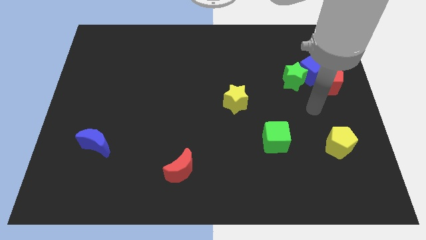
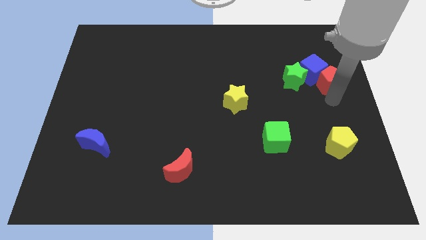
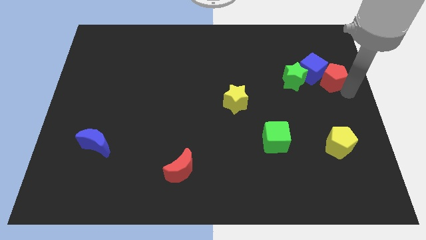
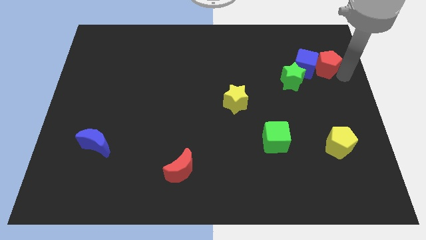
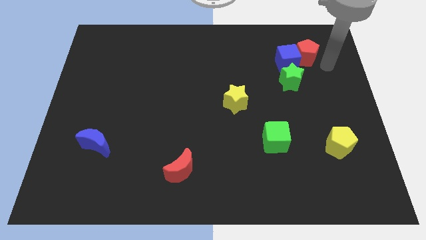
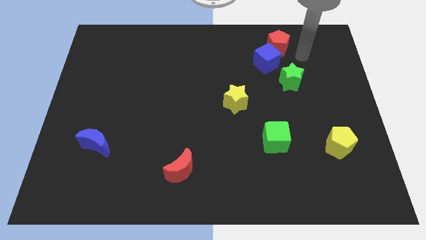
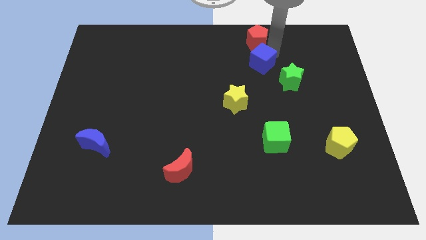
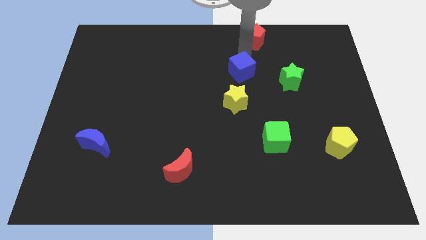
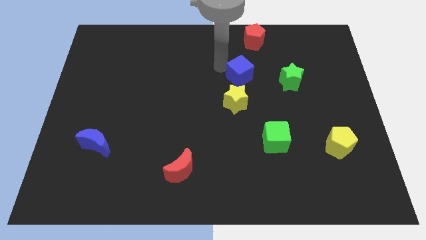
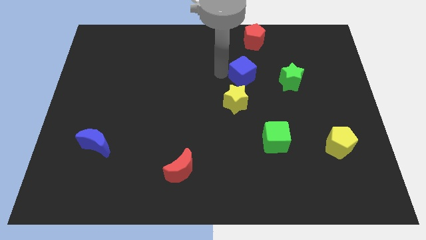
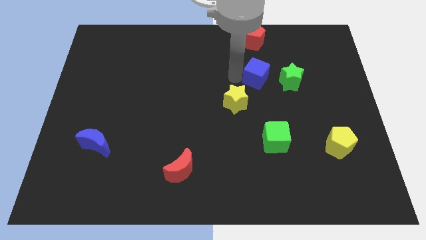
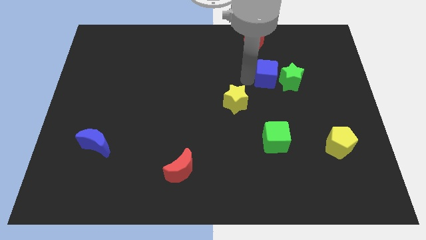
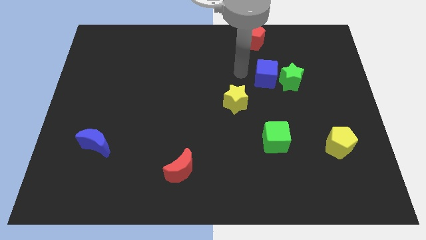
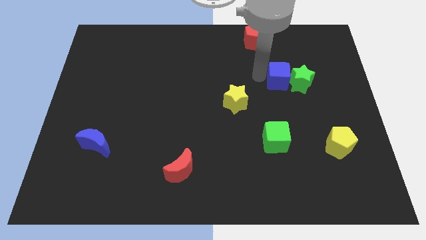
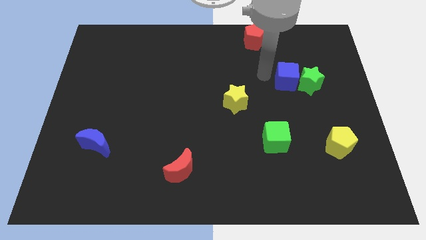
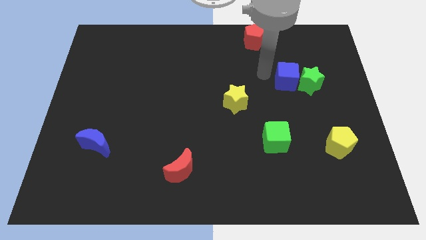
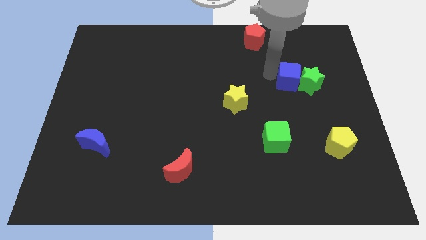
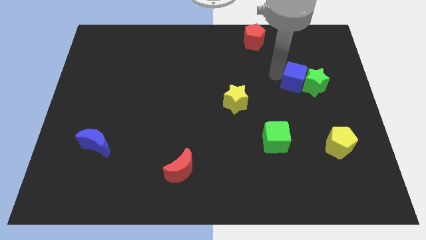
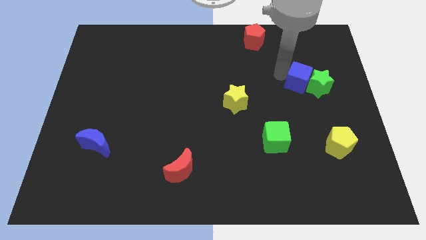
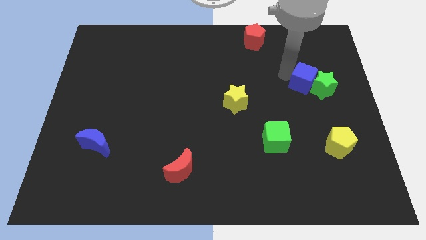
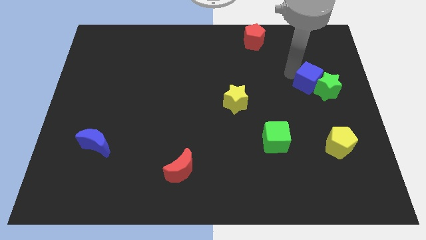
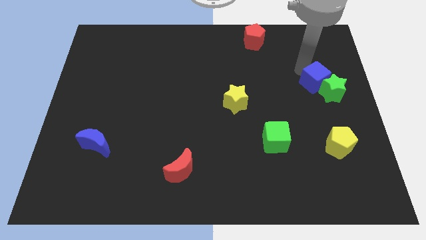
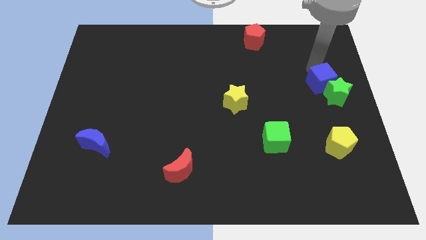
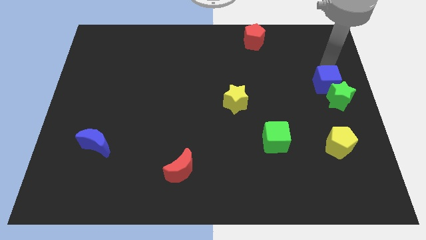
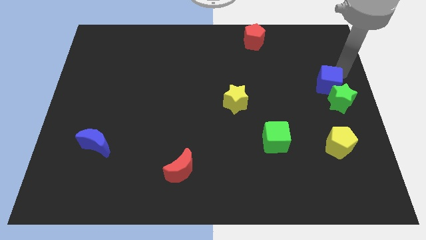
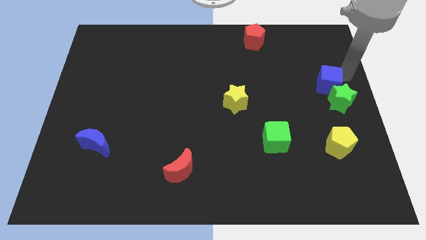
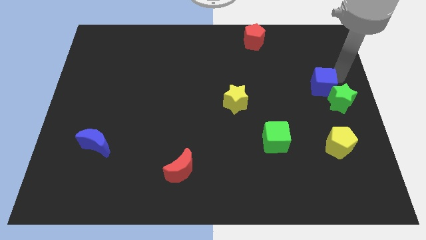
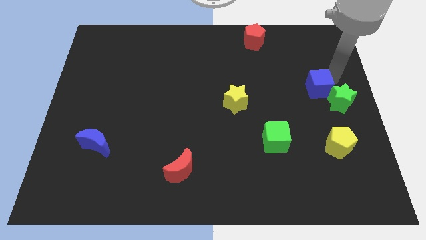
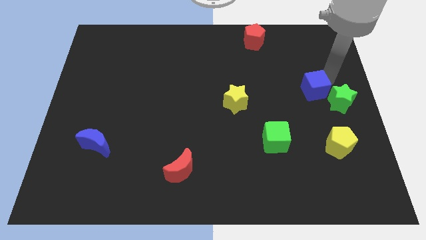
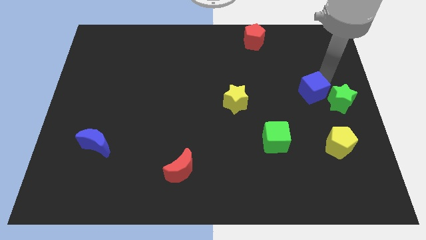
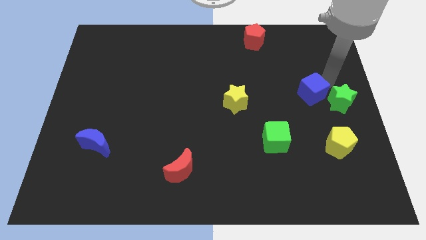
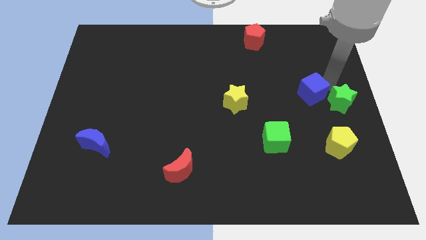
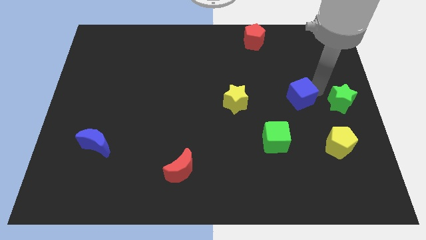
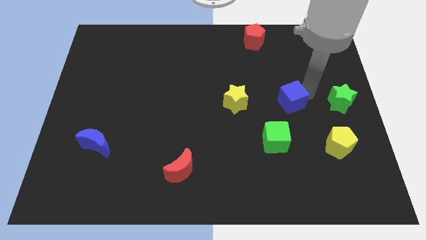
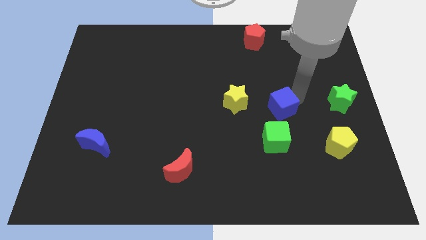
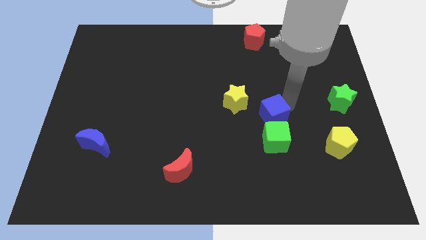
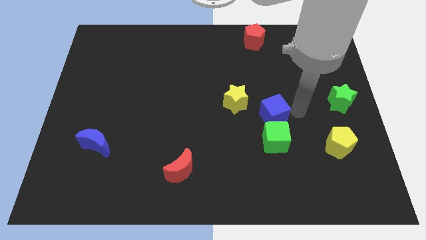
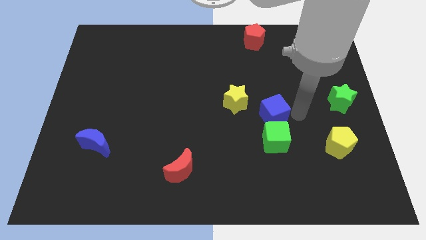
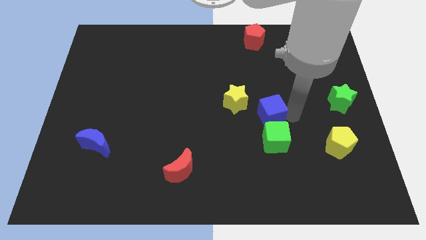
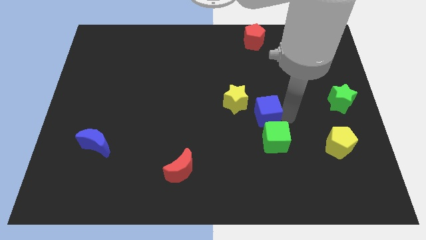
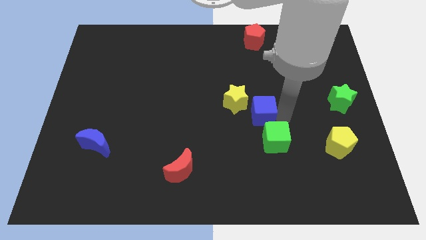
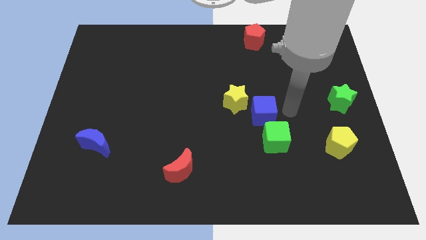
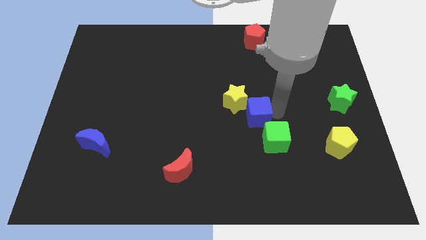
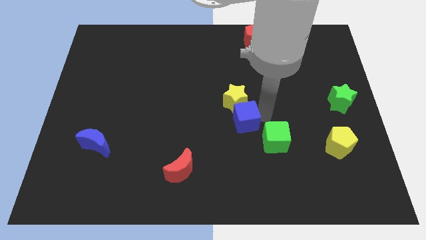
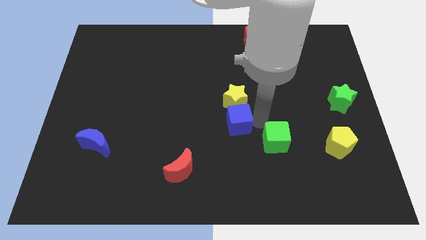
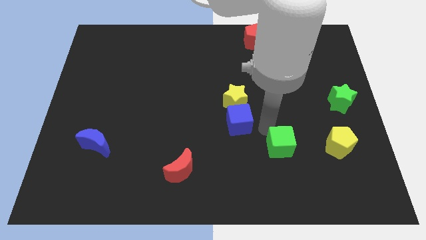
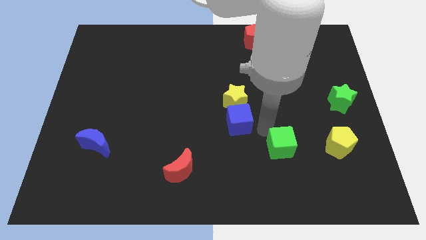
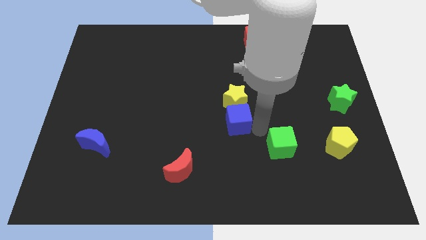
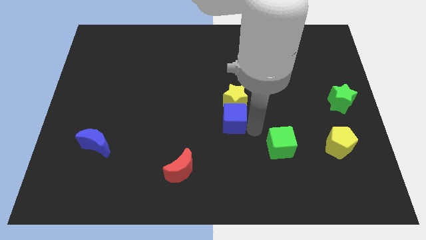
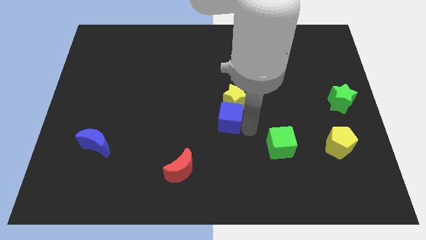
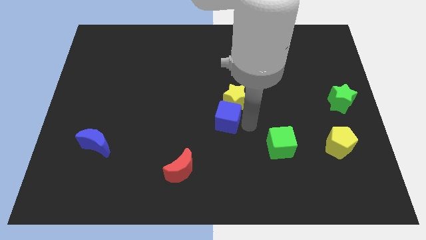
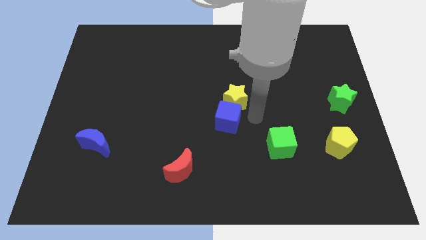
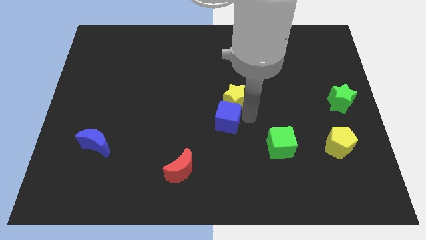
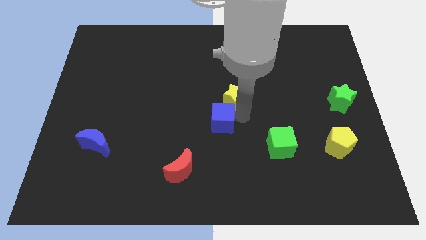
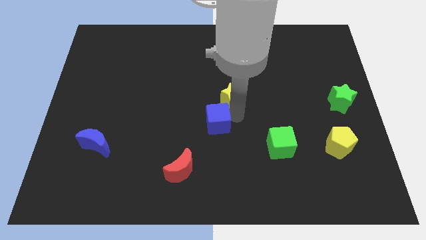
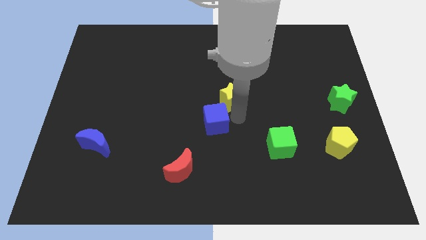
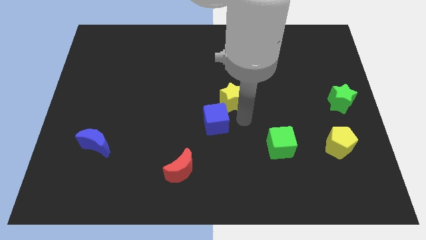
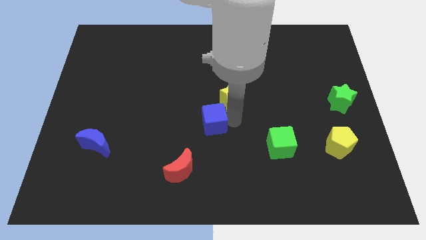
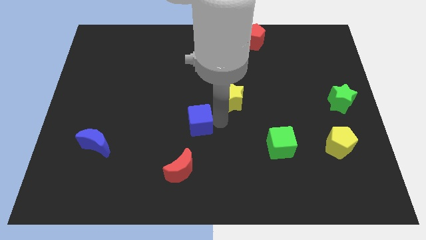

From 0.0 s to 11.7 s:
push the blue cube to the top side of the red moon

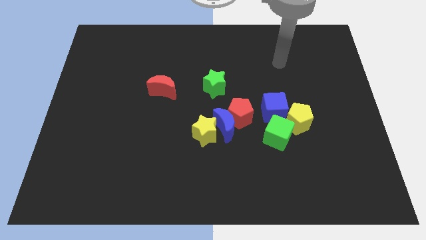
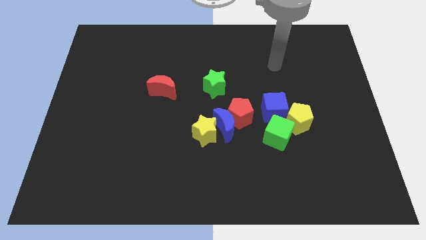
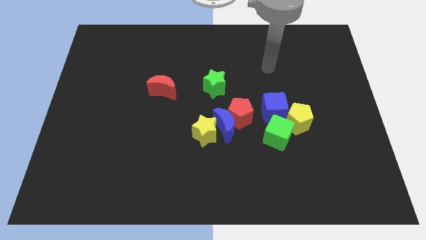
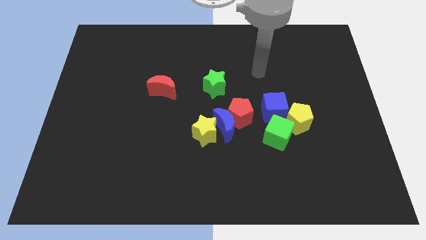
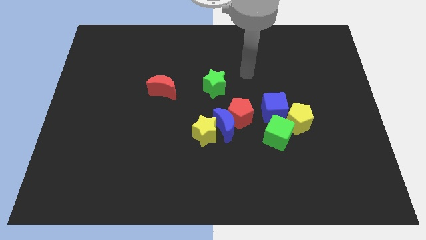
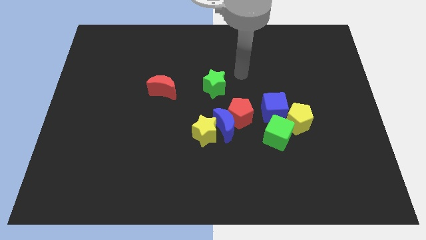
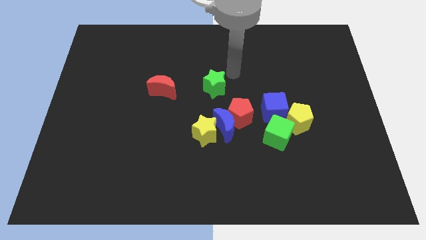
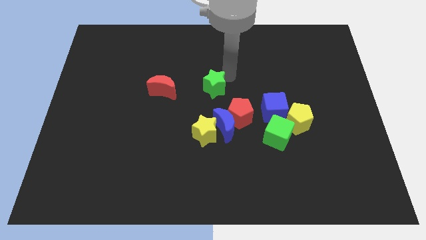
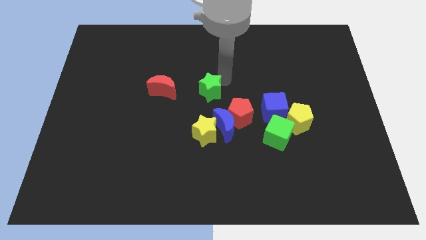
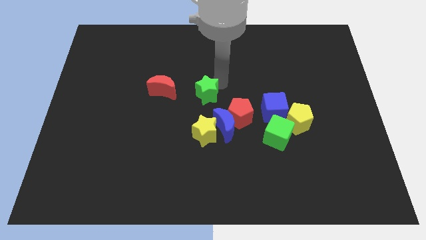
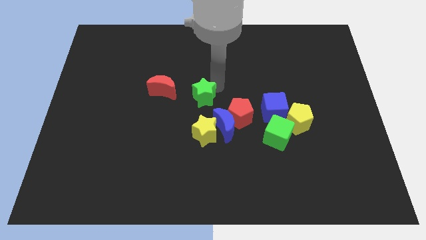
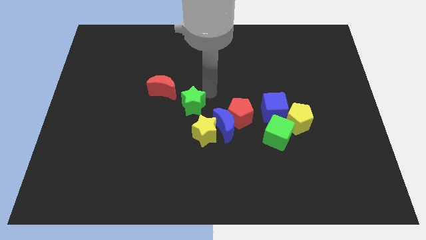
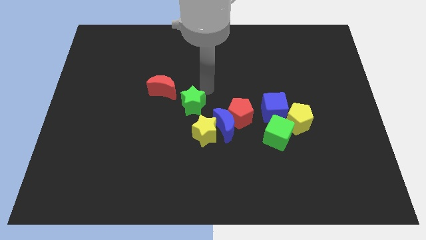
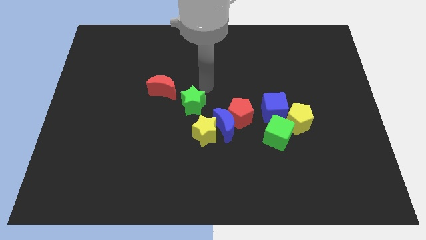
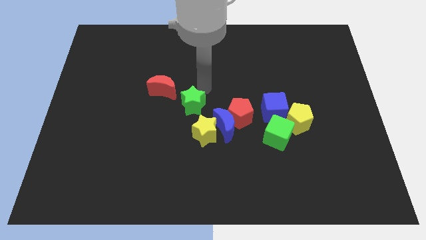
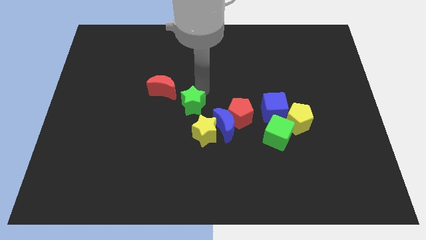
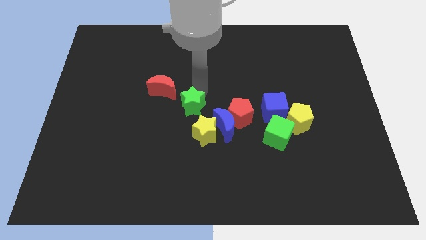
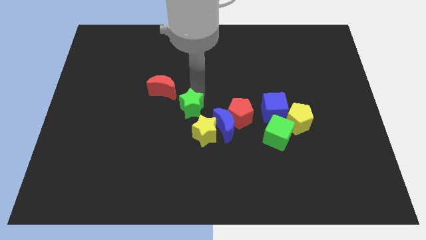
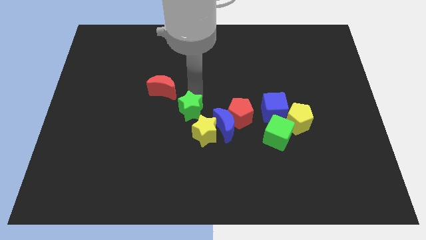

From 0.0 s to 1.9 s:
move the green star to the left side of the blue moon
